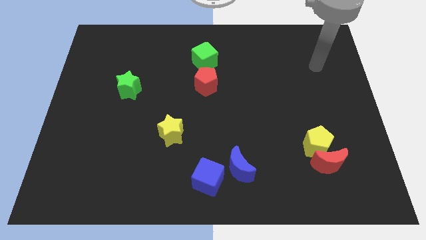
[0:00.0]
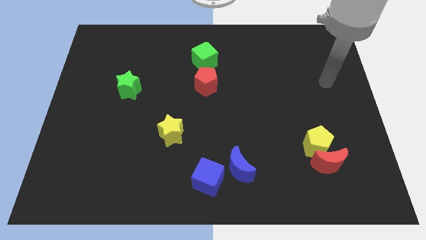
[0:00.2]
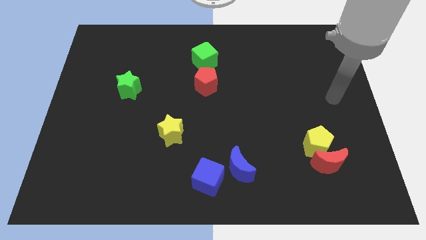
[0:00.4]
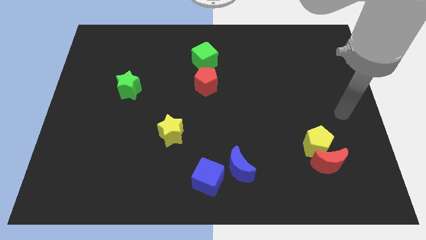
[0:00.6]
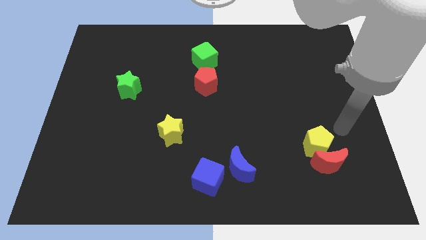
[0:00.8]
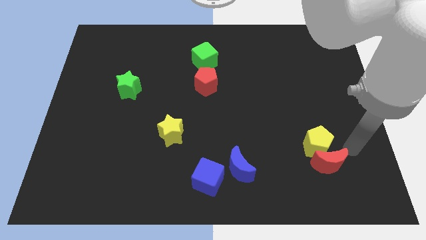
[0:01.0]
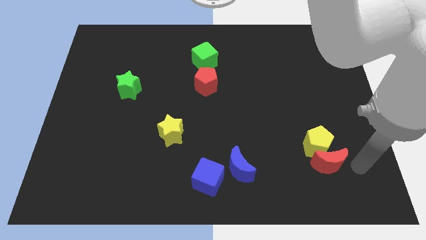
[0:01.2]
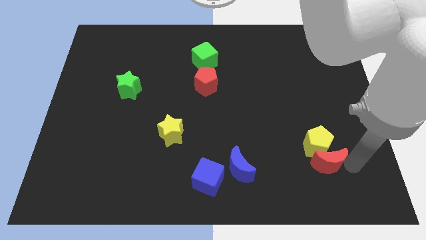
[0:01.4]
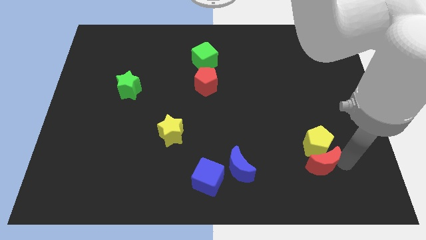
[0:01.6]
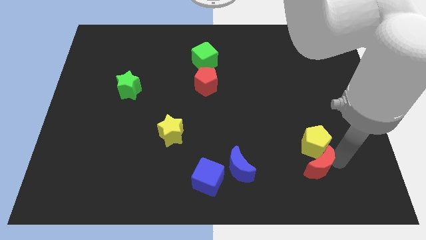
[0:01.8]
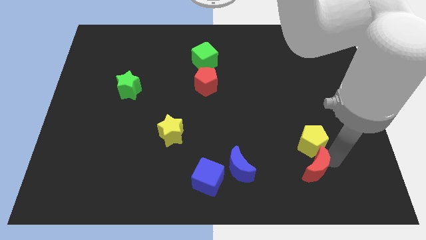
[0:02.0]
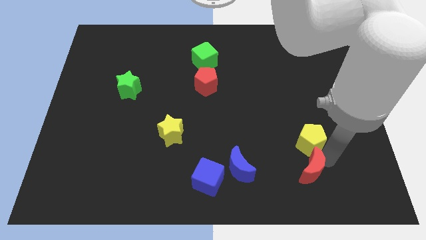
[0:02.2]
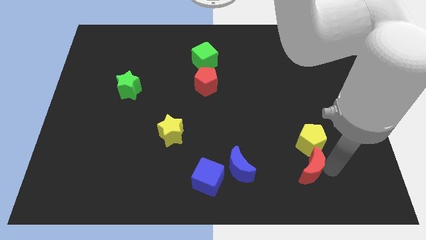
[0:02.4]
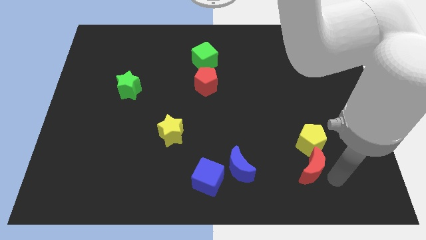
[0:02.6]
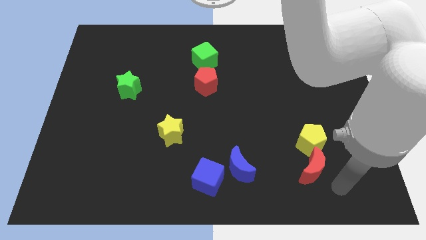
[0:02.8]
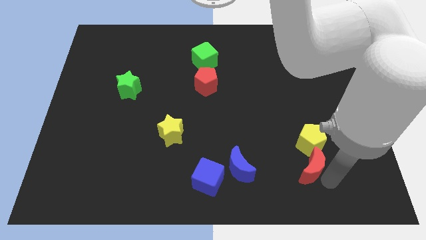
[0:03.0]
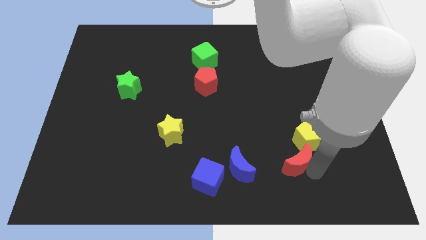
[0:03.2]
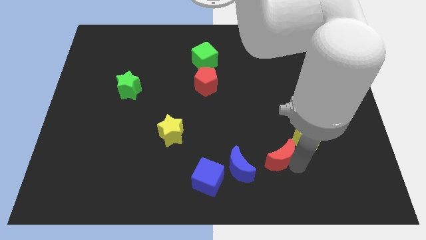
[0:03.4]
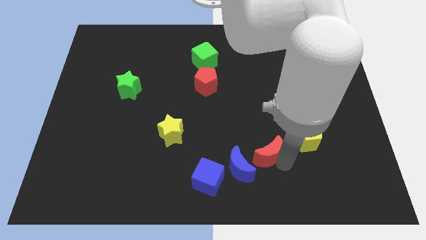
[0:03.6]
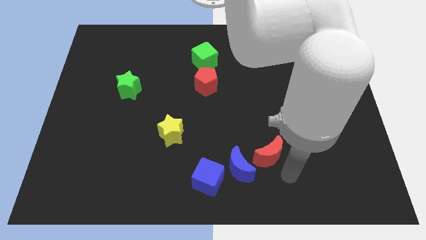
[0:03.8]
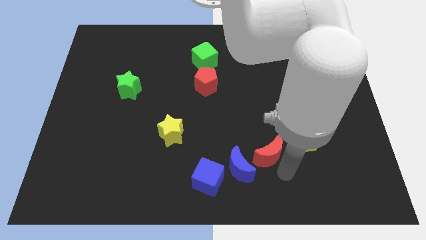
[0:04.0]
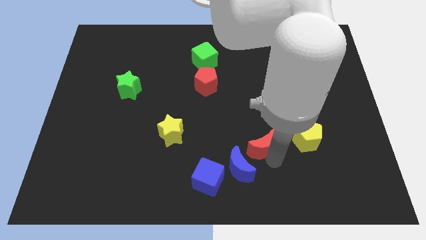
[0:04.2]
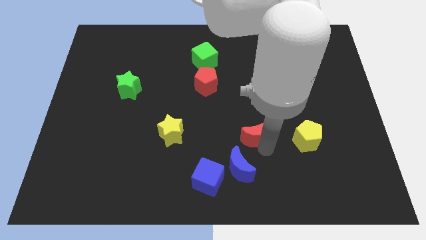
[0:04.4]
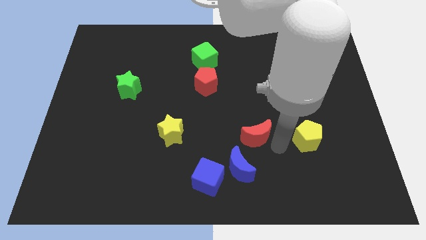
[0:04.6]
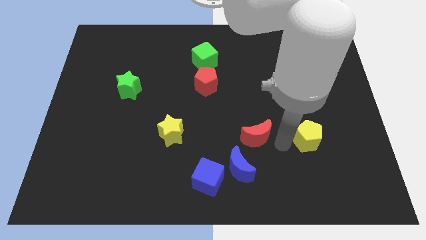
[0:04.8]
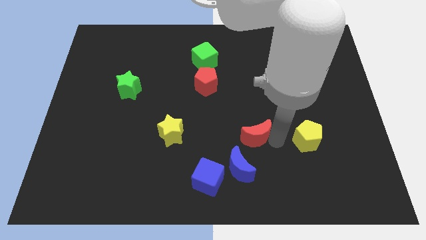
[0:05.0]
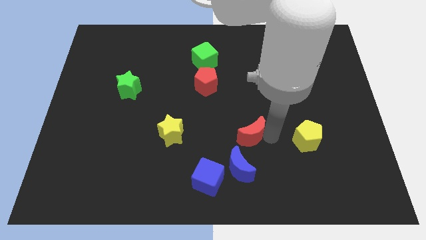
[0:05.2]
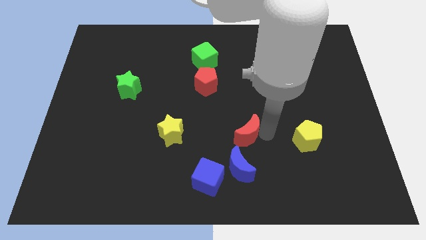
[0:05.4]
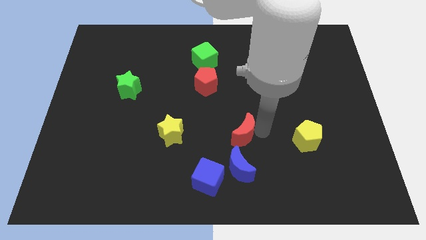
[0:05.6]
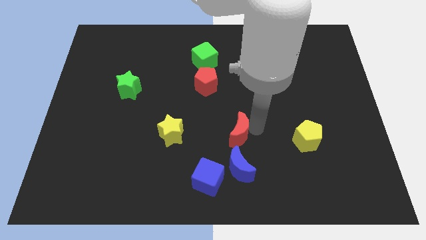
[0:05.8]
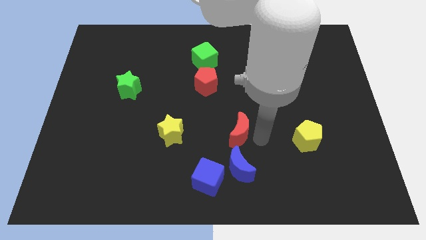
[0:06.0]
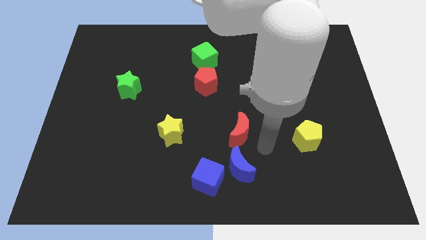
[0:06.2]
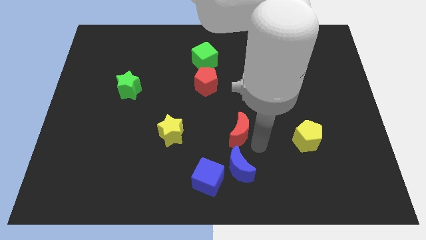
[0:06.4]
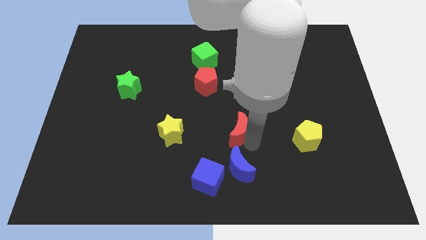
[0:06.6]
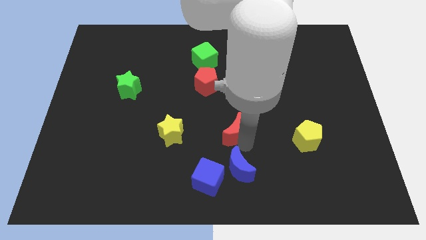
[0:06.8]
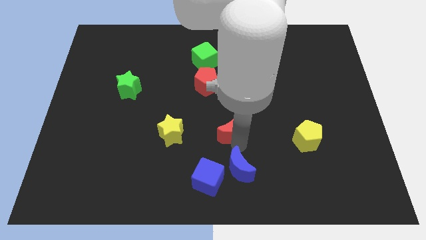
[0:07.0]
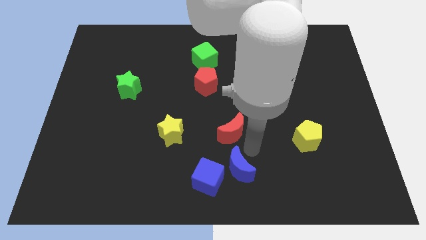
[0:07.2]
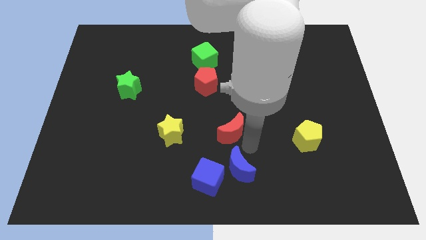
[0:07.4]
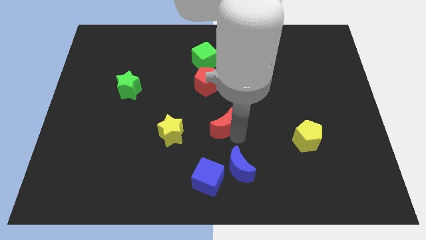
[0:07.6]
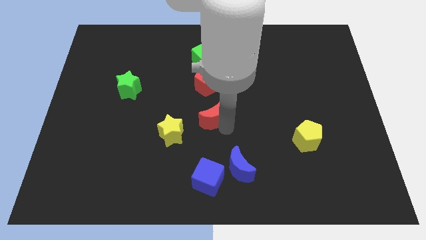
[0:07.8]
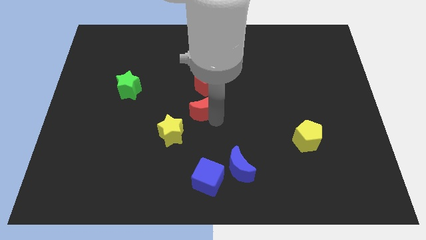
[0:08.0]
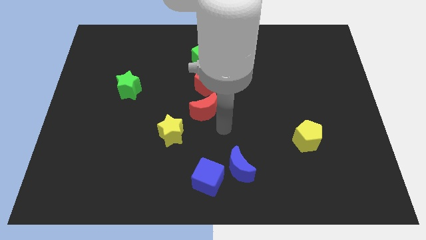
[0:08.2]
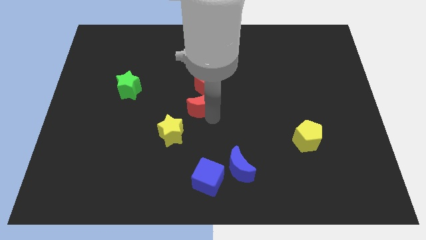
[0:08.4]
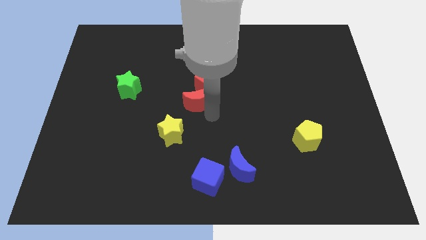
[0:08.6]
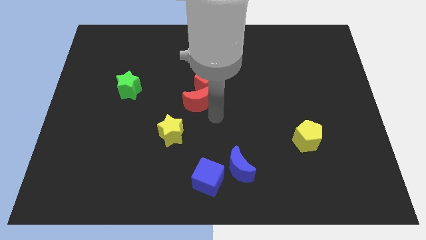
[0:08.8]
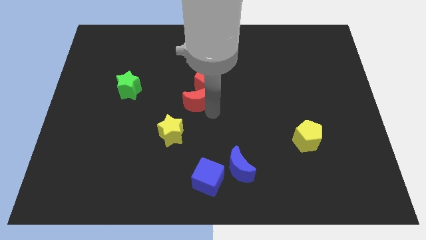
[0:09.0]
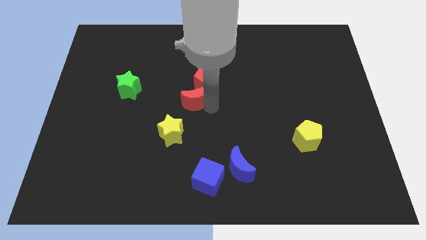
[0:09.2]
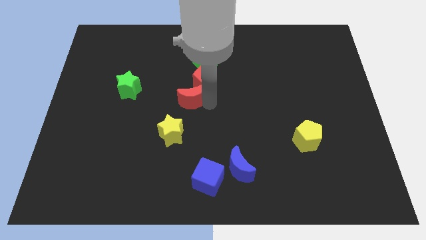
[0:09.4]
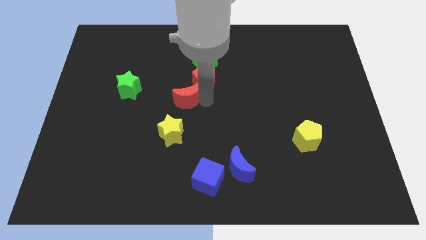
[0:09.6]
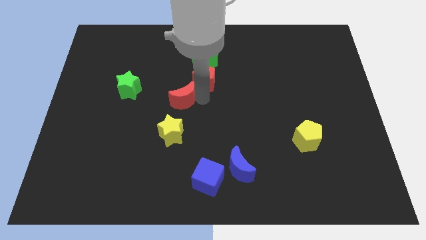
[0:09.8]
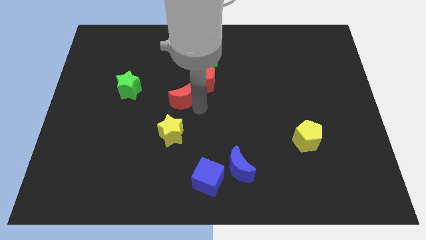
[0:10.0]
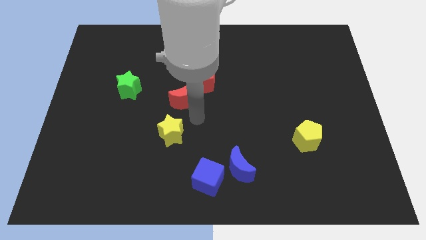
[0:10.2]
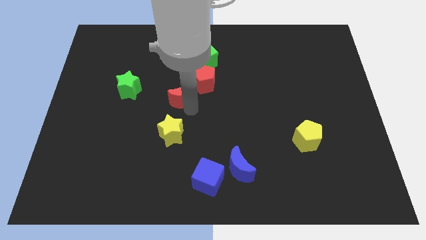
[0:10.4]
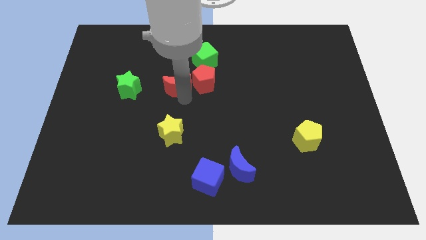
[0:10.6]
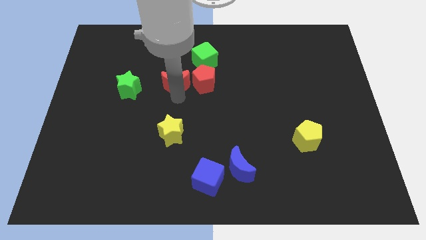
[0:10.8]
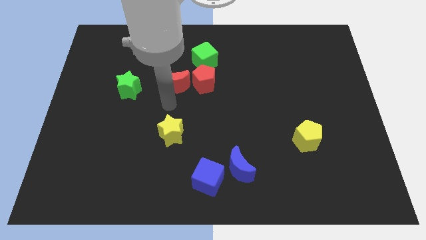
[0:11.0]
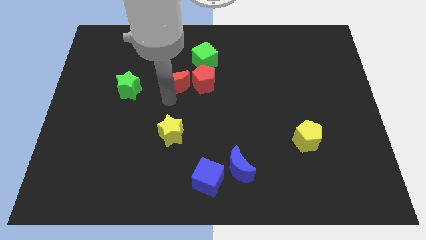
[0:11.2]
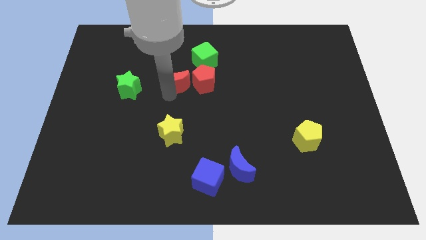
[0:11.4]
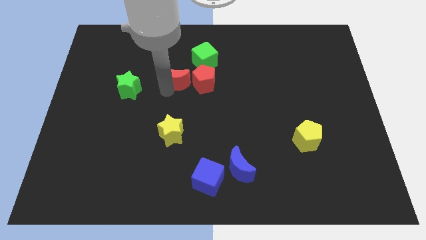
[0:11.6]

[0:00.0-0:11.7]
push the red moon diagonally up and to the left of the red pentagon
